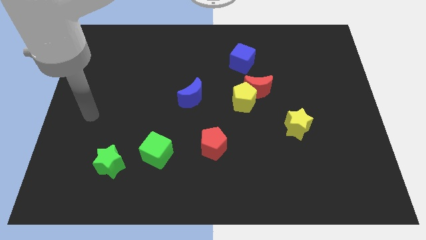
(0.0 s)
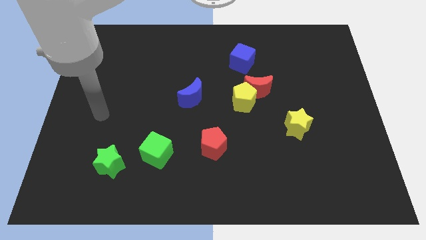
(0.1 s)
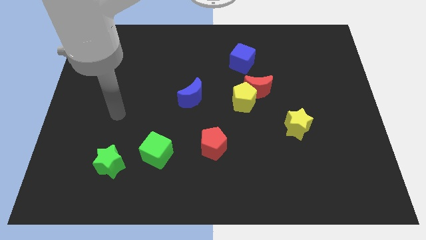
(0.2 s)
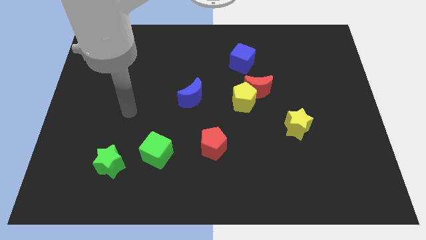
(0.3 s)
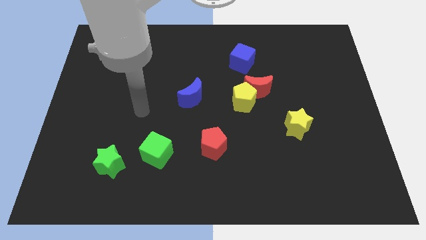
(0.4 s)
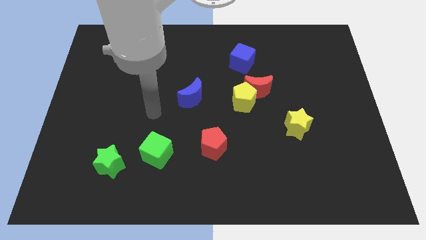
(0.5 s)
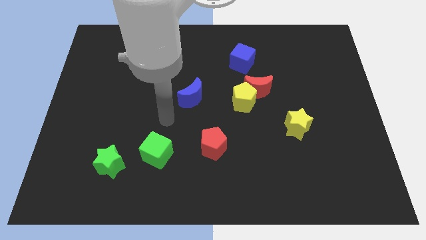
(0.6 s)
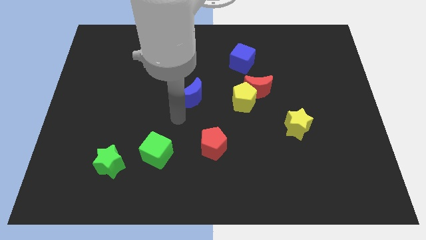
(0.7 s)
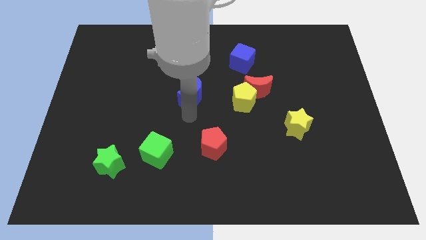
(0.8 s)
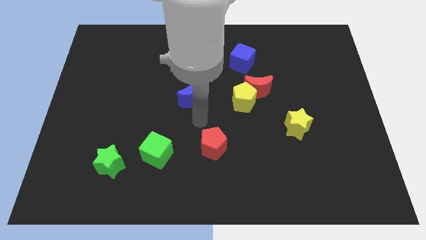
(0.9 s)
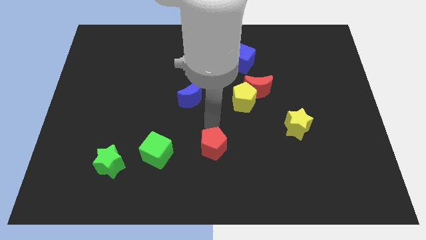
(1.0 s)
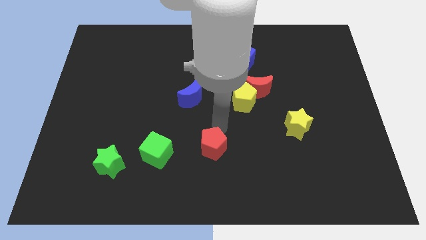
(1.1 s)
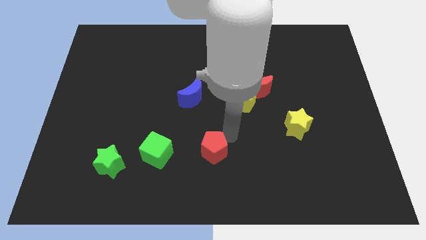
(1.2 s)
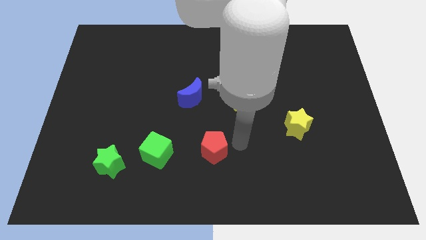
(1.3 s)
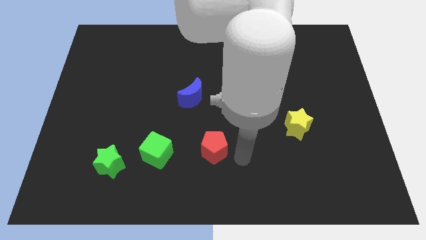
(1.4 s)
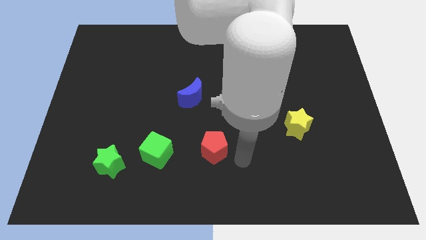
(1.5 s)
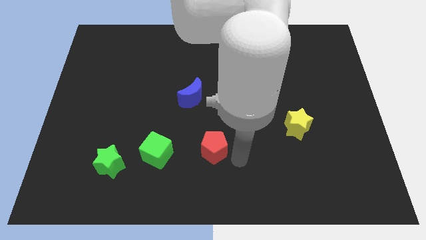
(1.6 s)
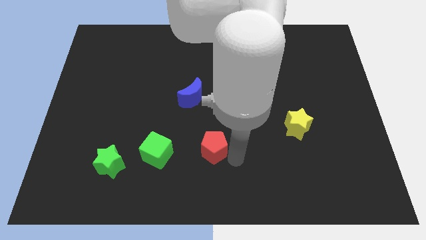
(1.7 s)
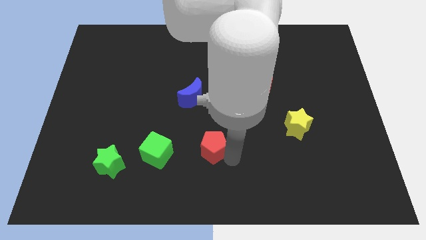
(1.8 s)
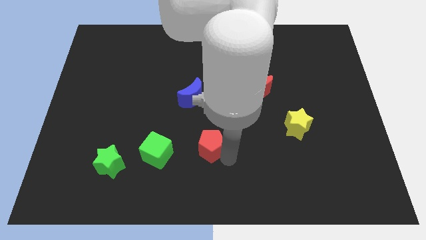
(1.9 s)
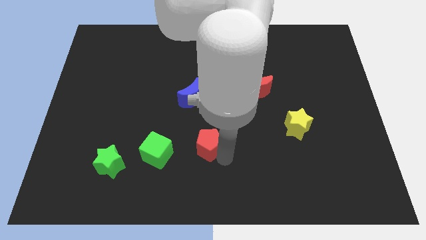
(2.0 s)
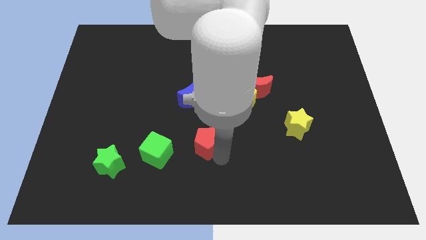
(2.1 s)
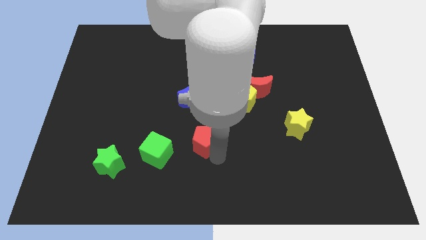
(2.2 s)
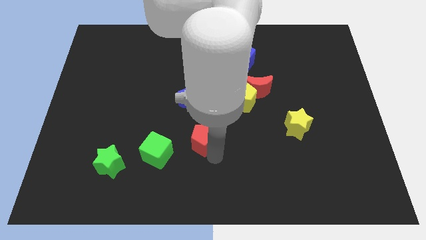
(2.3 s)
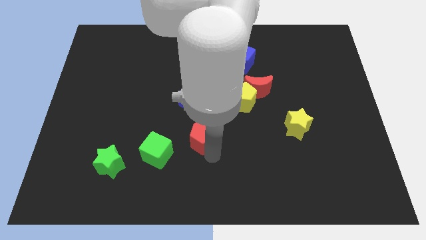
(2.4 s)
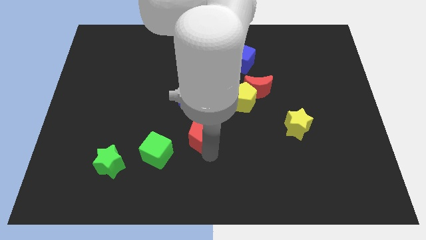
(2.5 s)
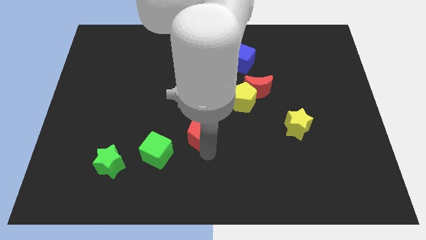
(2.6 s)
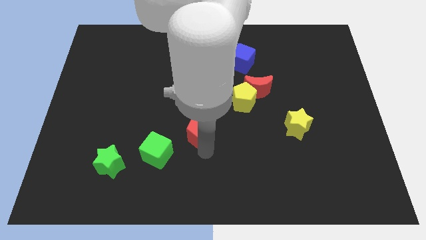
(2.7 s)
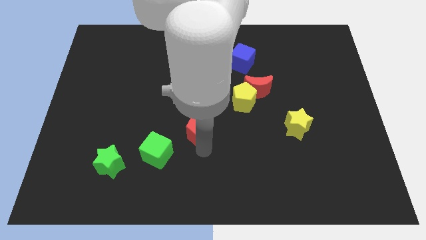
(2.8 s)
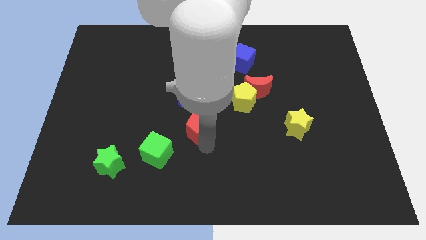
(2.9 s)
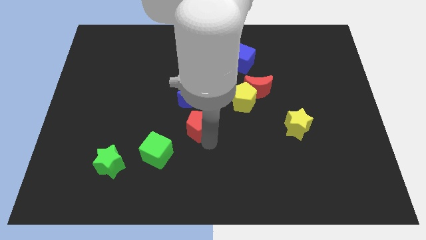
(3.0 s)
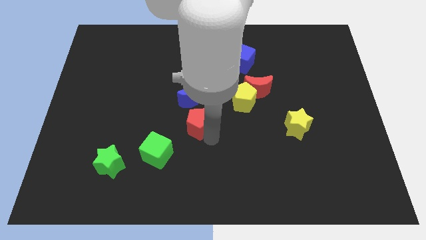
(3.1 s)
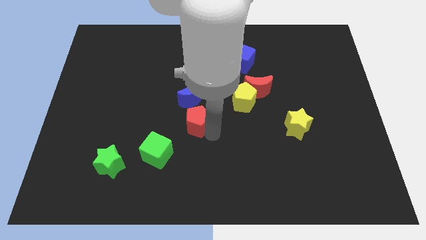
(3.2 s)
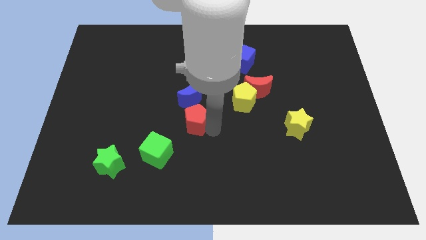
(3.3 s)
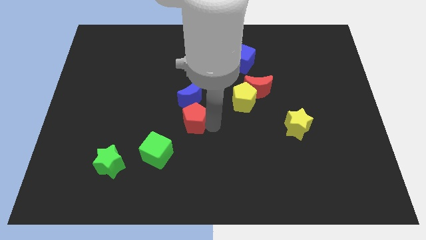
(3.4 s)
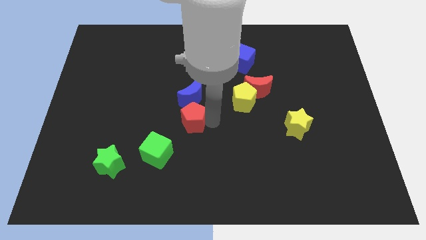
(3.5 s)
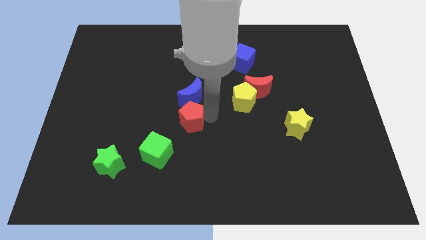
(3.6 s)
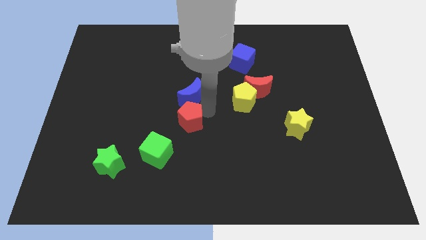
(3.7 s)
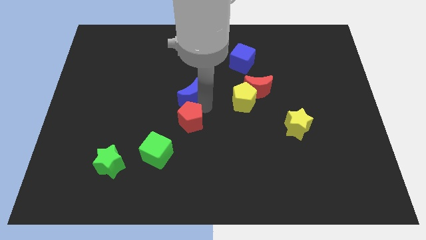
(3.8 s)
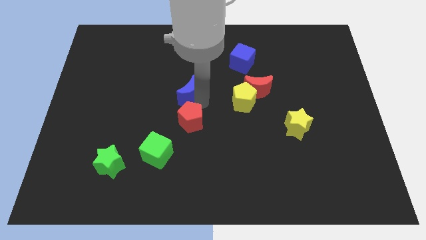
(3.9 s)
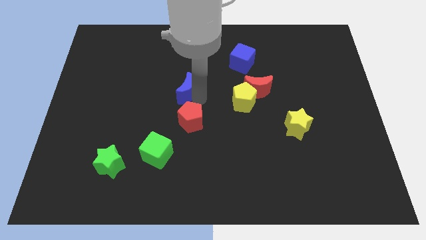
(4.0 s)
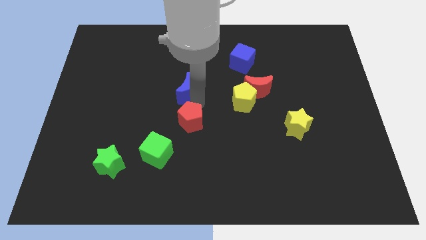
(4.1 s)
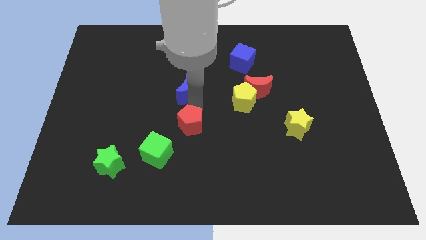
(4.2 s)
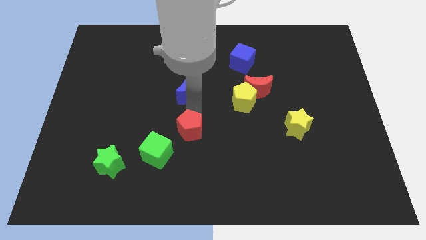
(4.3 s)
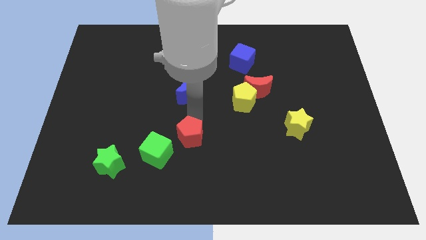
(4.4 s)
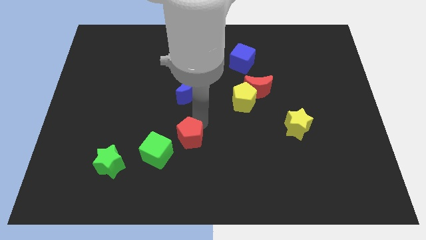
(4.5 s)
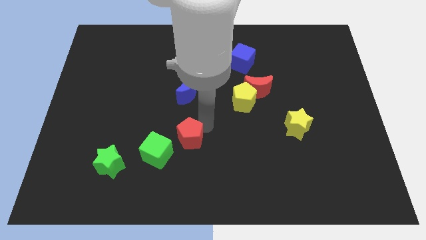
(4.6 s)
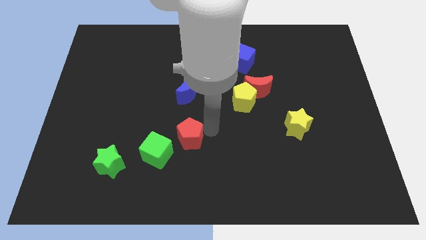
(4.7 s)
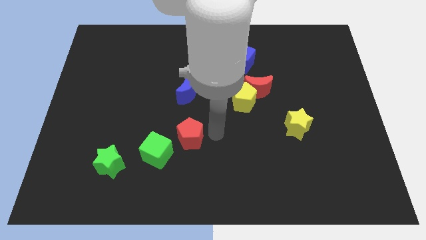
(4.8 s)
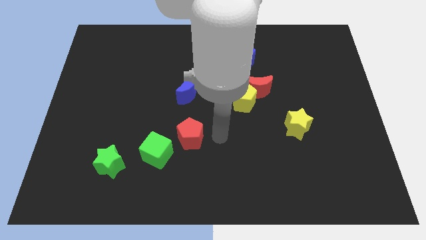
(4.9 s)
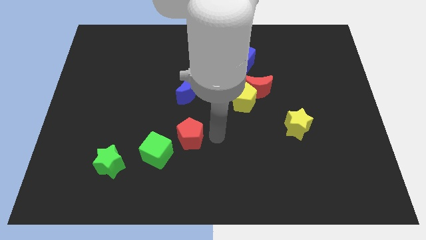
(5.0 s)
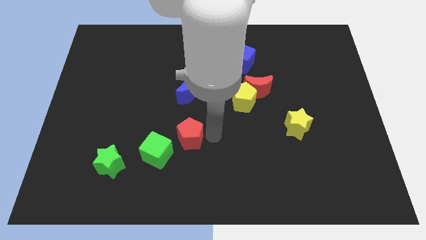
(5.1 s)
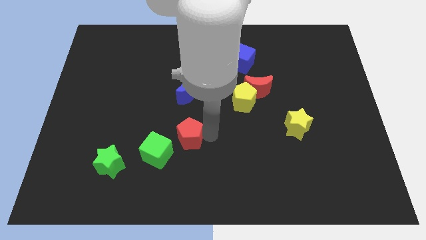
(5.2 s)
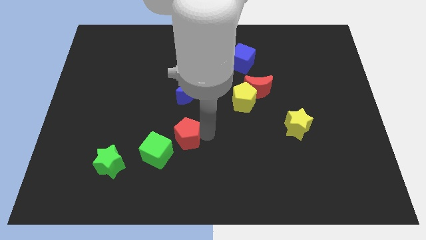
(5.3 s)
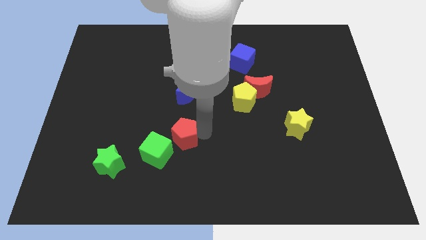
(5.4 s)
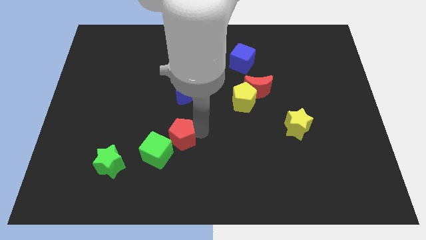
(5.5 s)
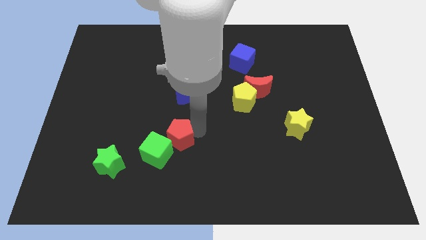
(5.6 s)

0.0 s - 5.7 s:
push the red pentagon to the left a bit

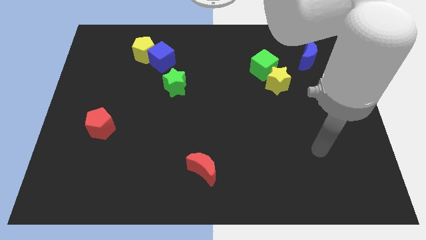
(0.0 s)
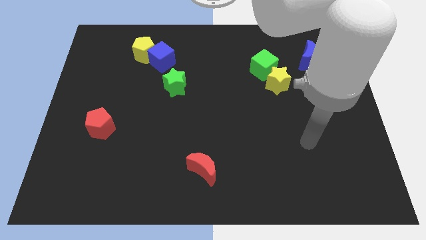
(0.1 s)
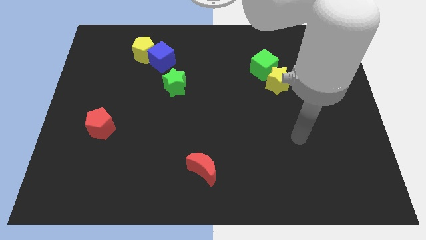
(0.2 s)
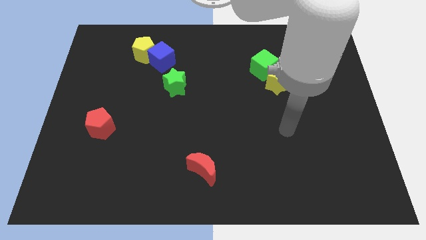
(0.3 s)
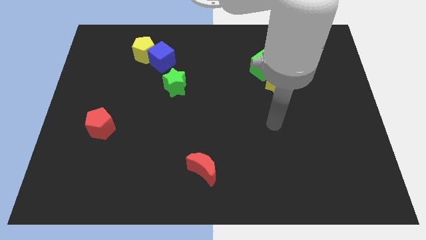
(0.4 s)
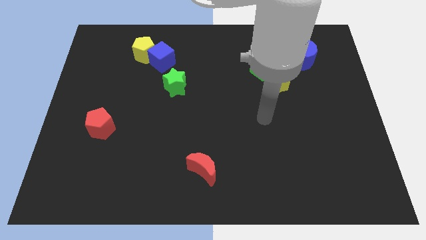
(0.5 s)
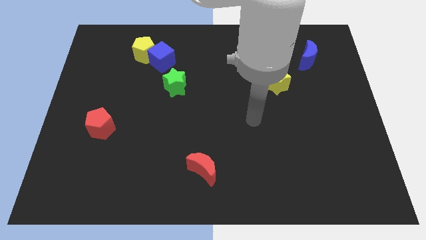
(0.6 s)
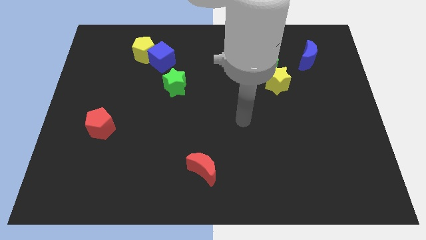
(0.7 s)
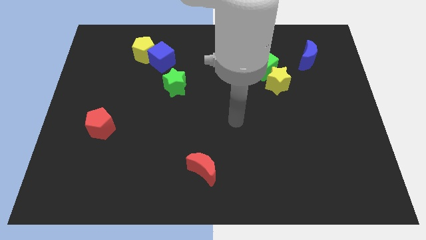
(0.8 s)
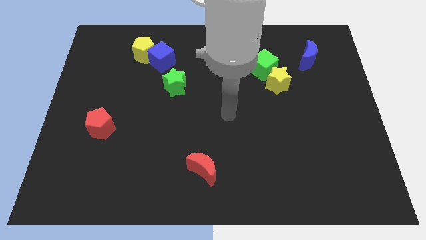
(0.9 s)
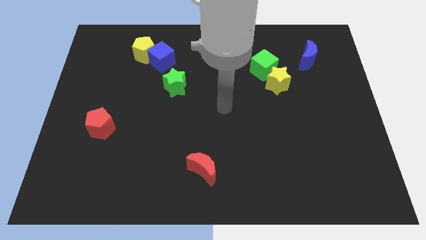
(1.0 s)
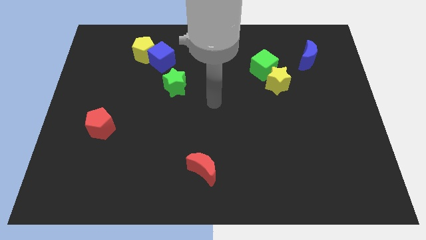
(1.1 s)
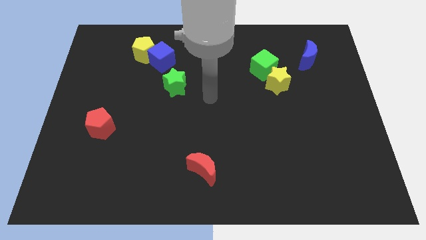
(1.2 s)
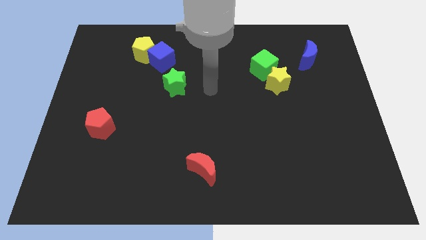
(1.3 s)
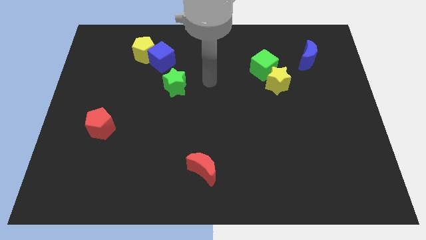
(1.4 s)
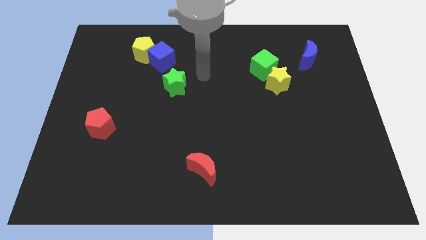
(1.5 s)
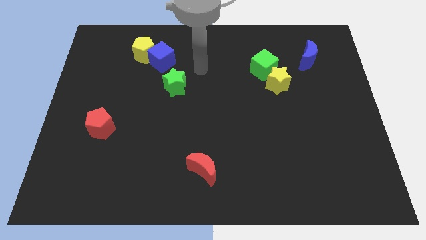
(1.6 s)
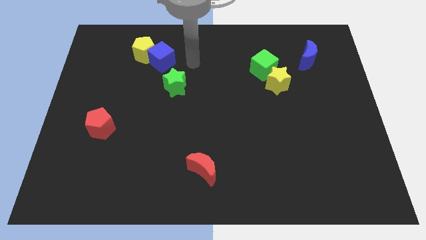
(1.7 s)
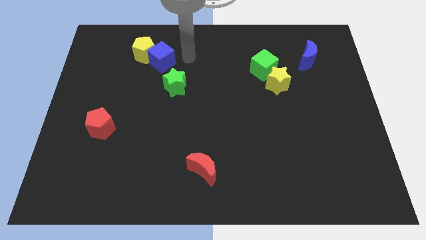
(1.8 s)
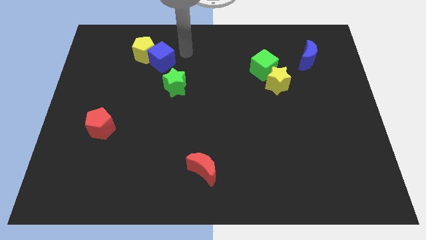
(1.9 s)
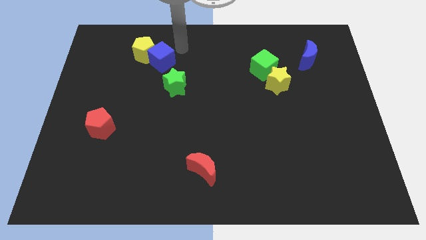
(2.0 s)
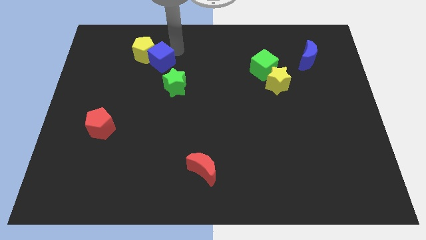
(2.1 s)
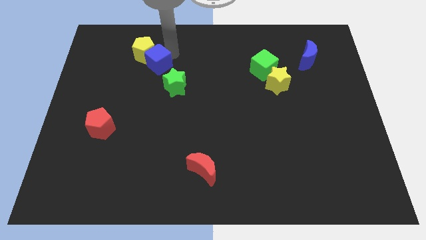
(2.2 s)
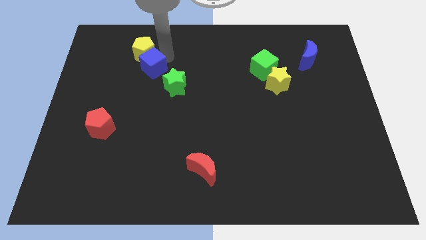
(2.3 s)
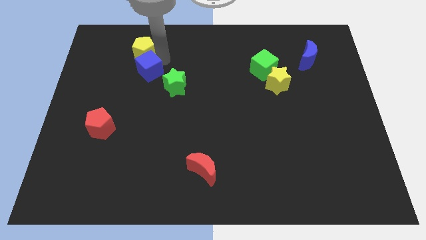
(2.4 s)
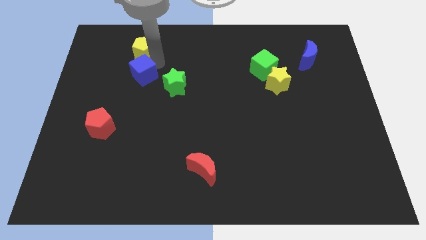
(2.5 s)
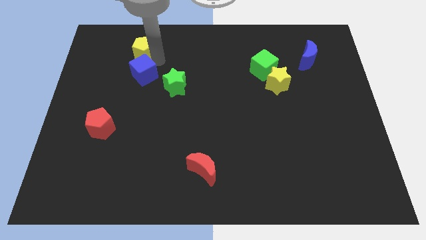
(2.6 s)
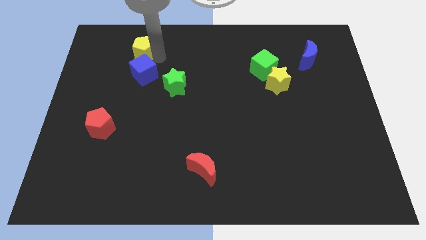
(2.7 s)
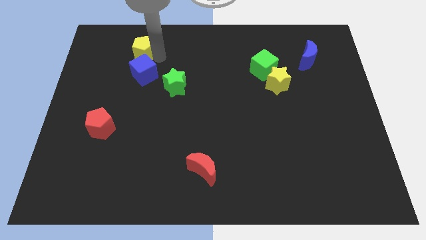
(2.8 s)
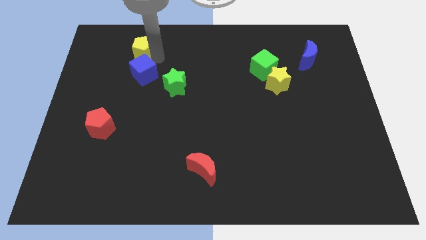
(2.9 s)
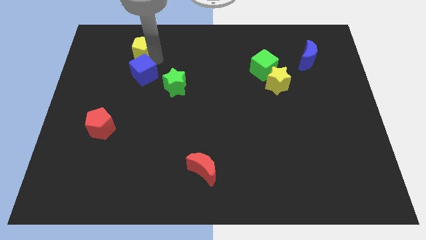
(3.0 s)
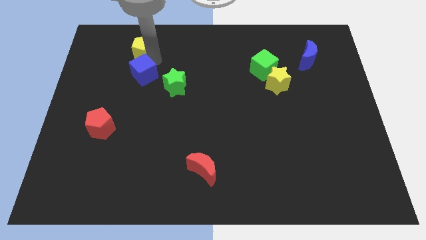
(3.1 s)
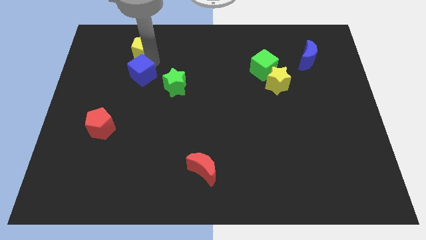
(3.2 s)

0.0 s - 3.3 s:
slide the blue cube diagonally down and to the left slightly
